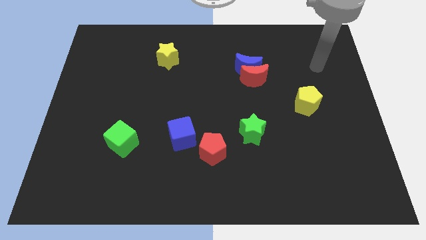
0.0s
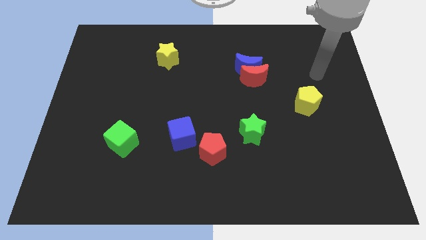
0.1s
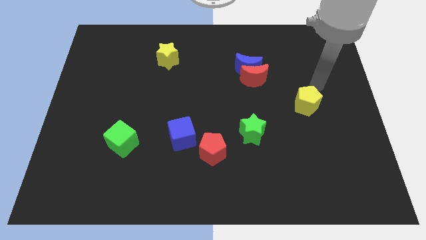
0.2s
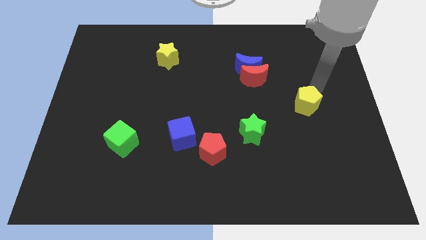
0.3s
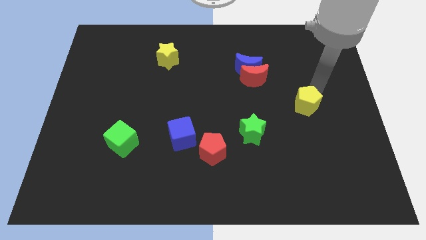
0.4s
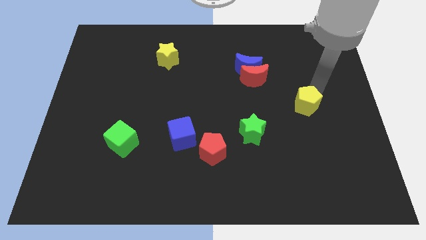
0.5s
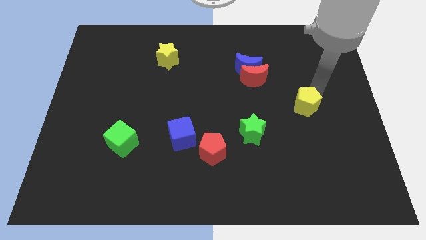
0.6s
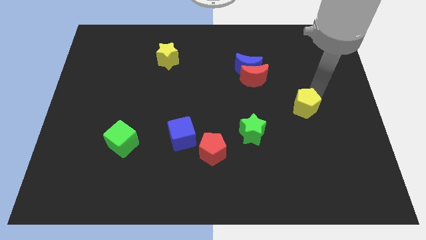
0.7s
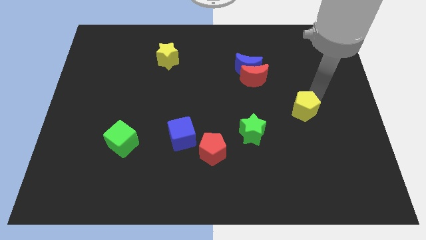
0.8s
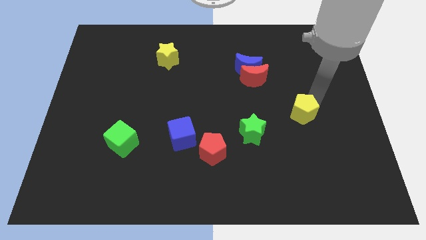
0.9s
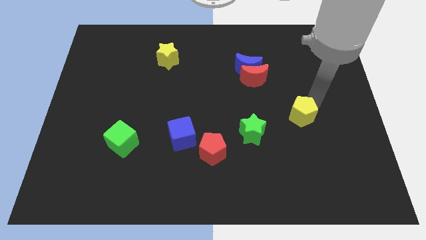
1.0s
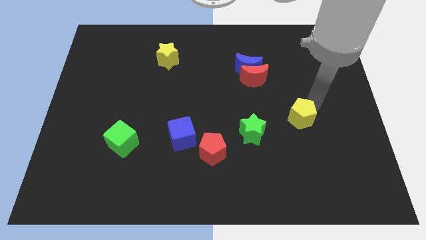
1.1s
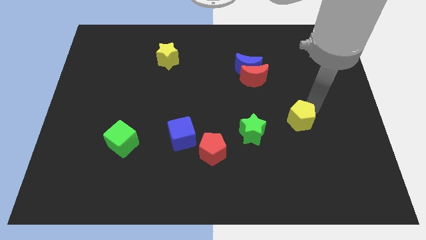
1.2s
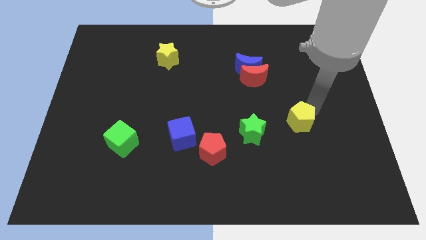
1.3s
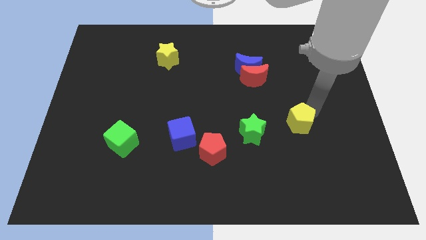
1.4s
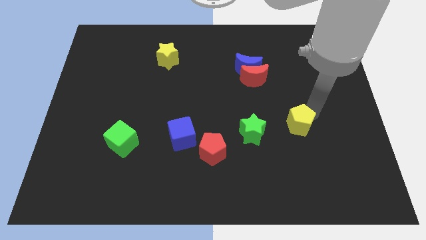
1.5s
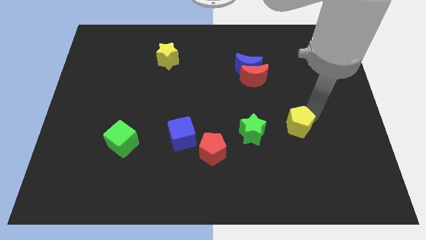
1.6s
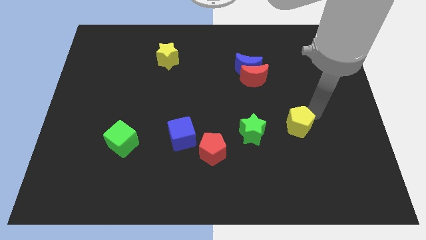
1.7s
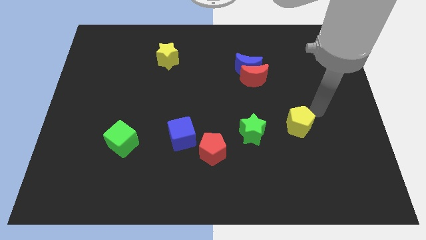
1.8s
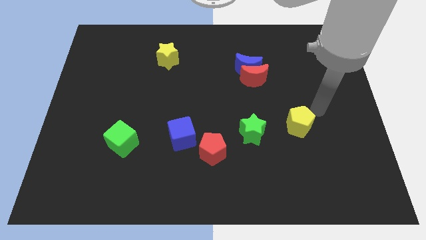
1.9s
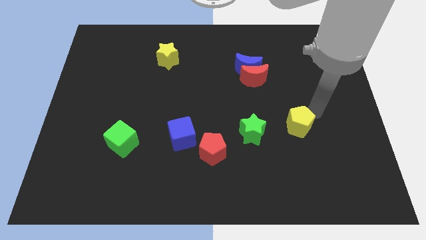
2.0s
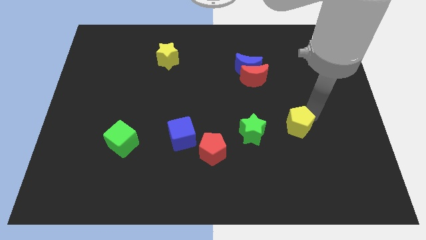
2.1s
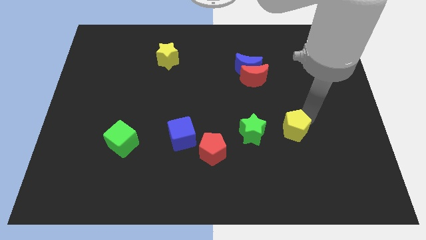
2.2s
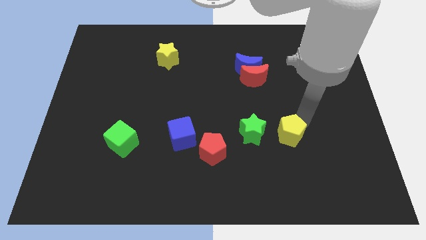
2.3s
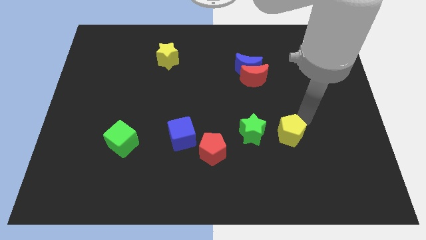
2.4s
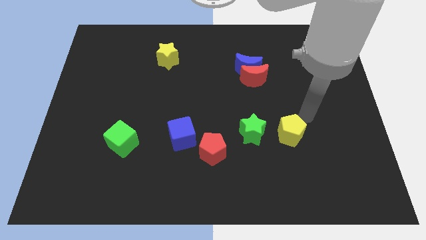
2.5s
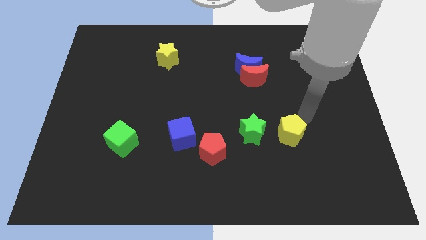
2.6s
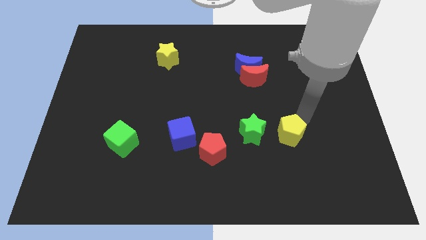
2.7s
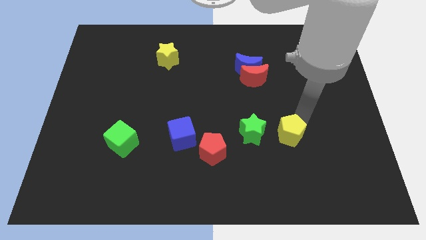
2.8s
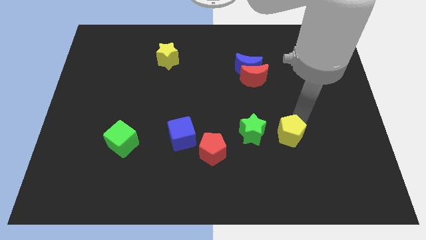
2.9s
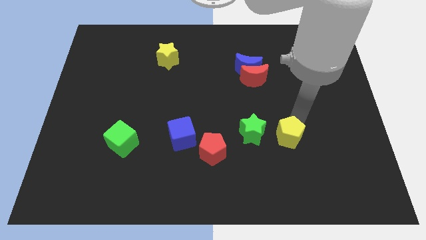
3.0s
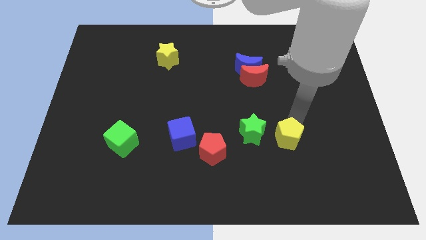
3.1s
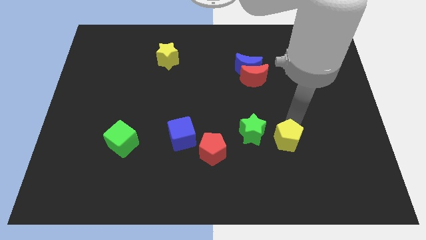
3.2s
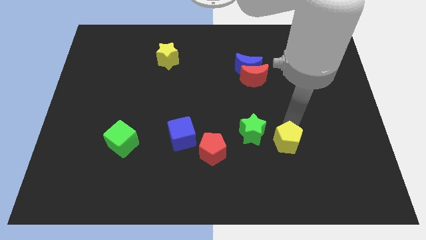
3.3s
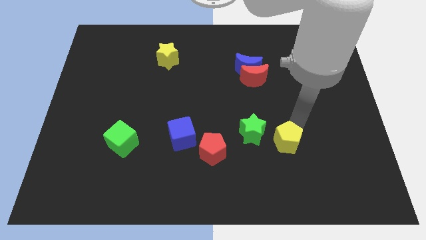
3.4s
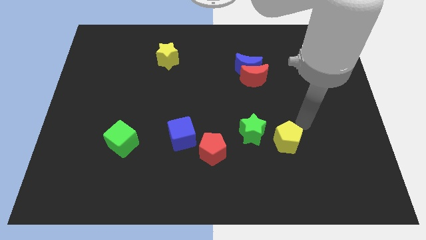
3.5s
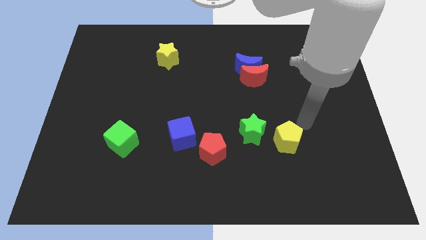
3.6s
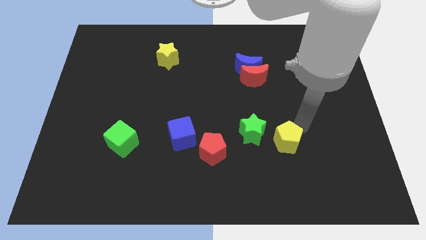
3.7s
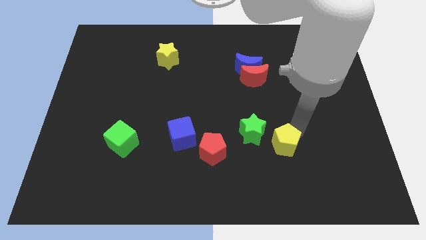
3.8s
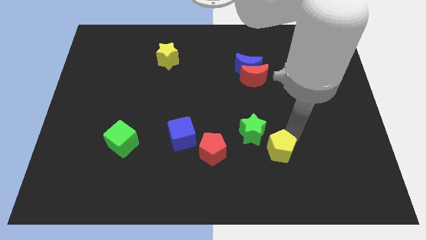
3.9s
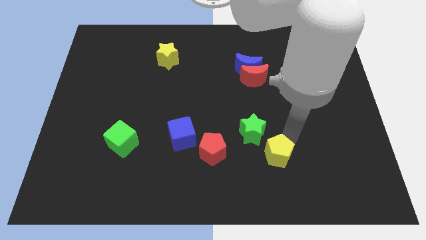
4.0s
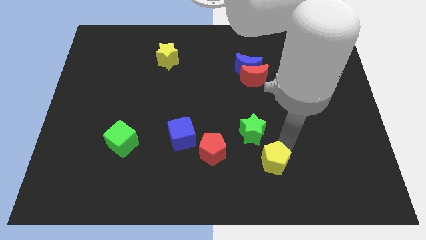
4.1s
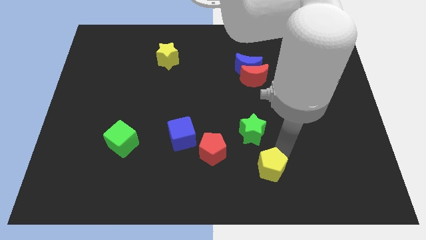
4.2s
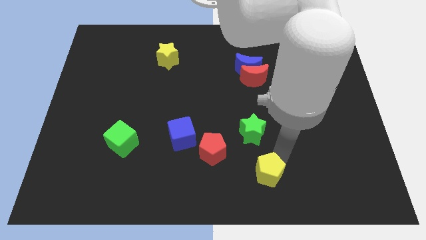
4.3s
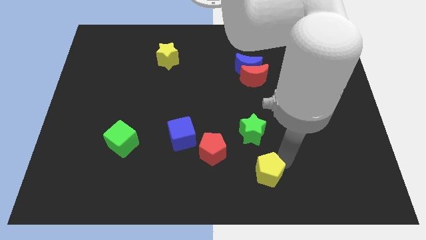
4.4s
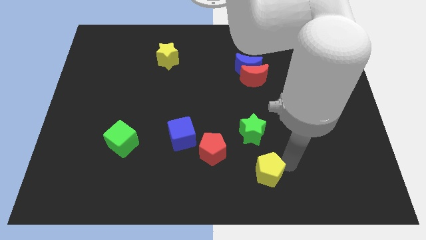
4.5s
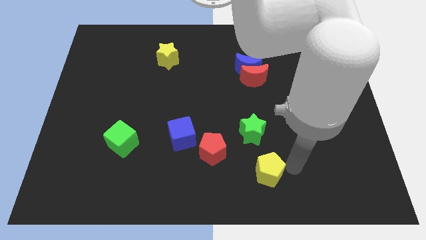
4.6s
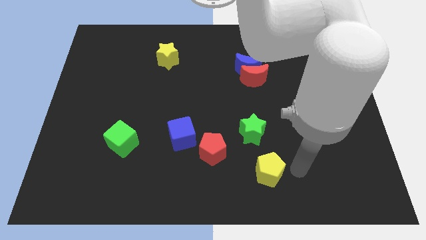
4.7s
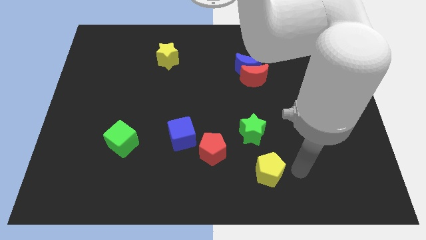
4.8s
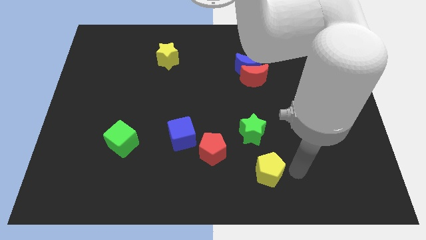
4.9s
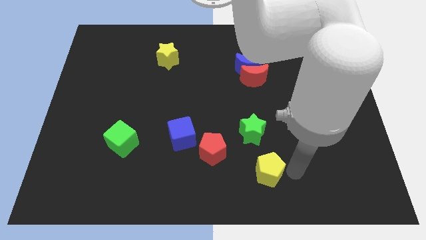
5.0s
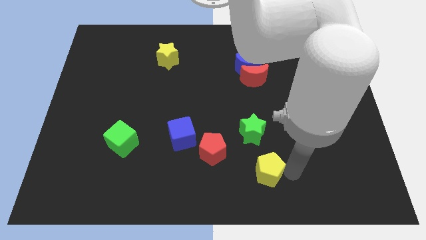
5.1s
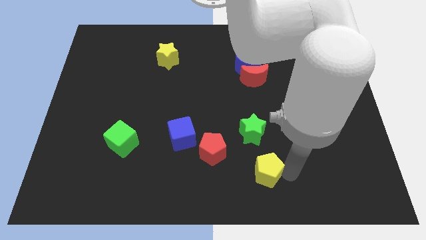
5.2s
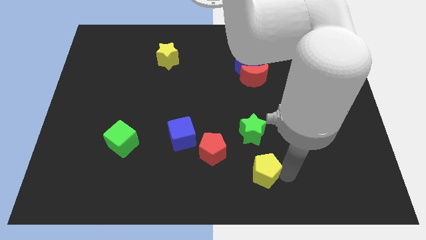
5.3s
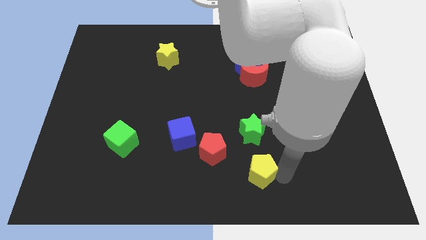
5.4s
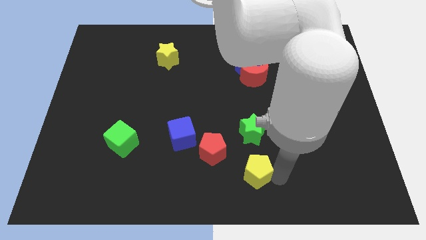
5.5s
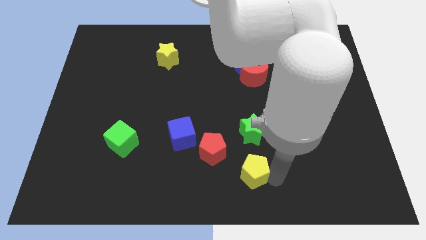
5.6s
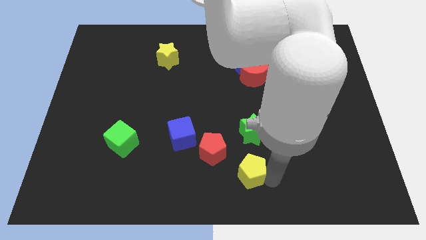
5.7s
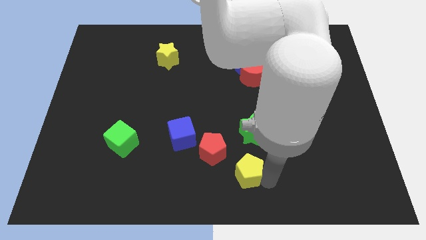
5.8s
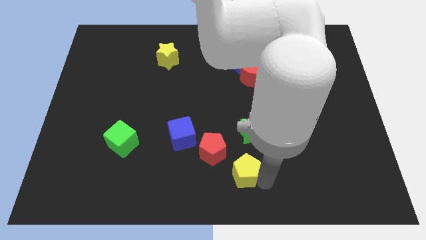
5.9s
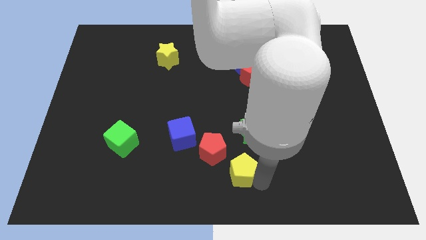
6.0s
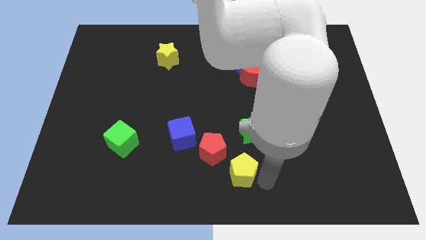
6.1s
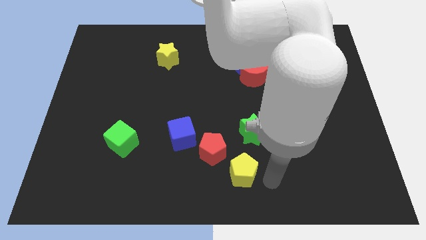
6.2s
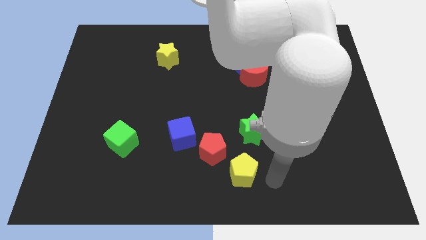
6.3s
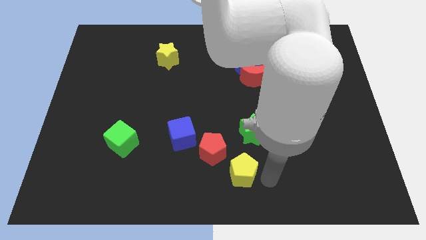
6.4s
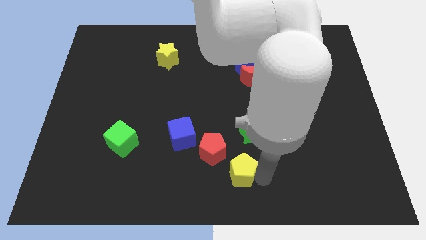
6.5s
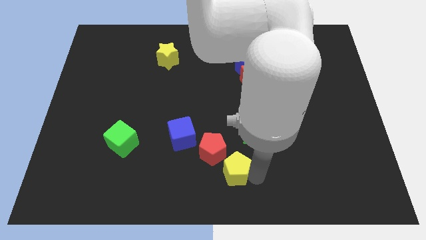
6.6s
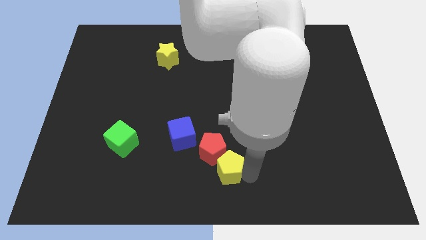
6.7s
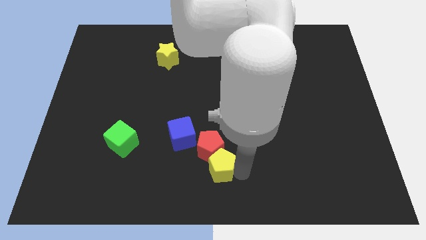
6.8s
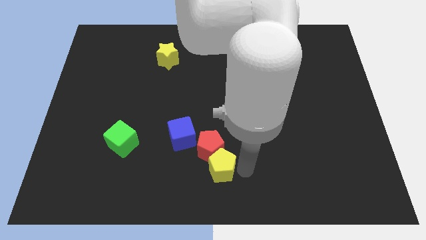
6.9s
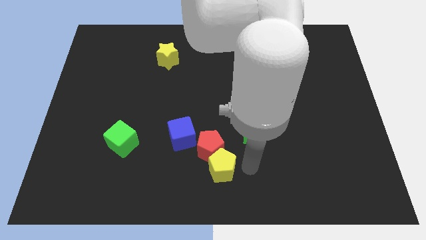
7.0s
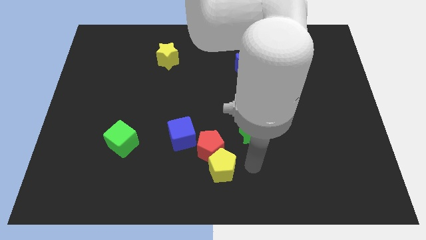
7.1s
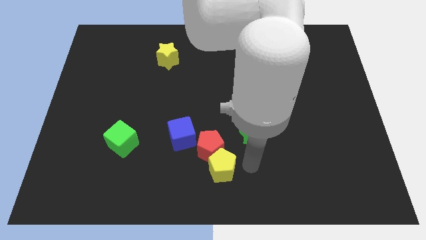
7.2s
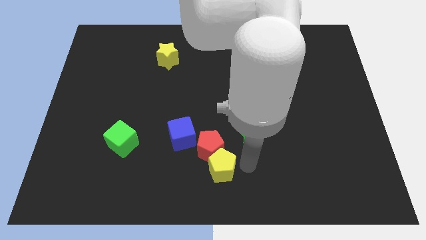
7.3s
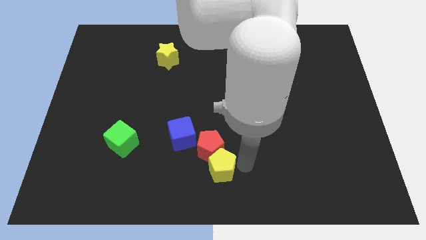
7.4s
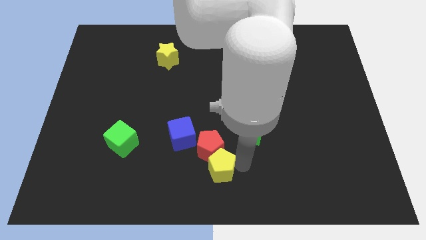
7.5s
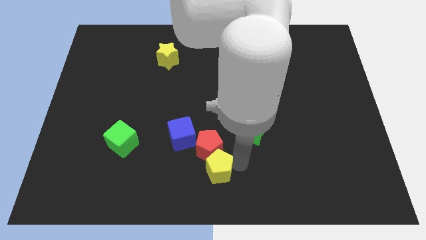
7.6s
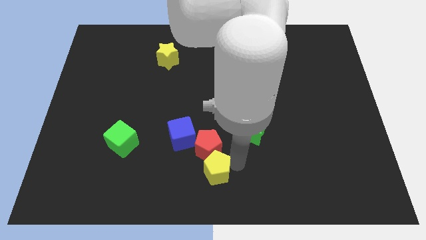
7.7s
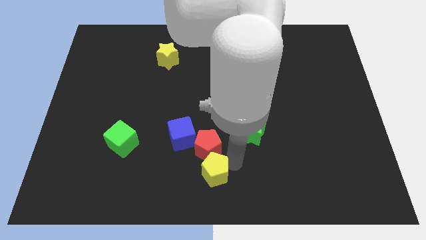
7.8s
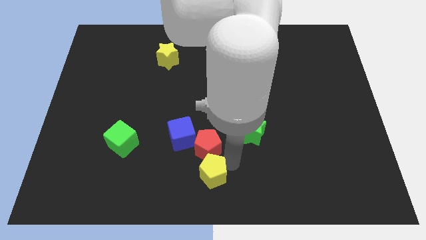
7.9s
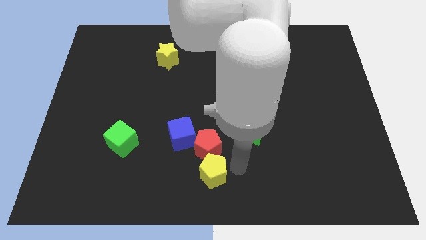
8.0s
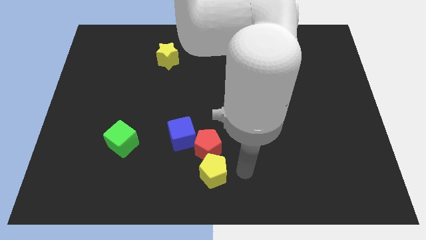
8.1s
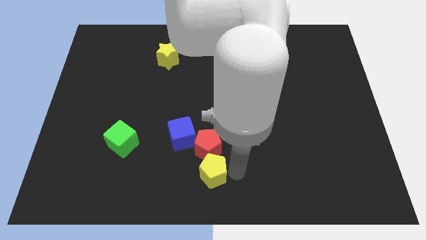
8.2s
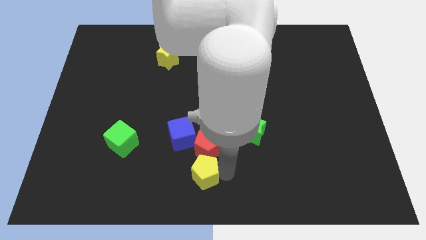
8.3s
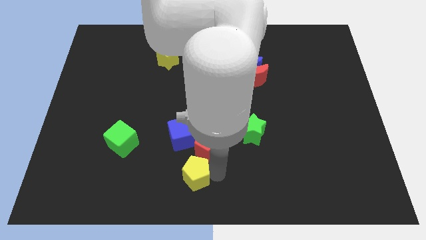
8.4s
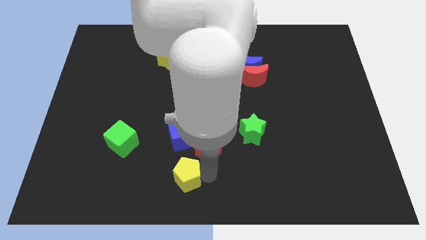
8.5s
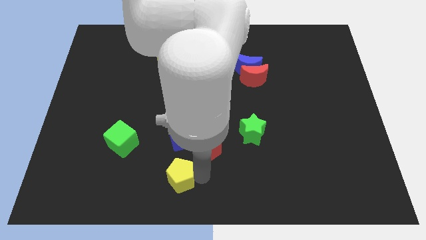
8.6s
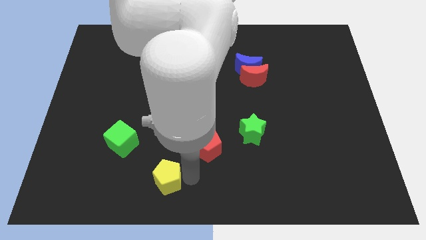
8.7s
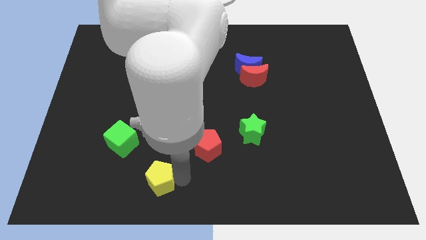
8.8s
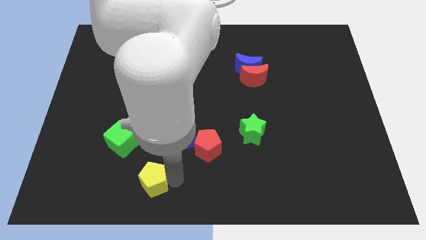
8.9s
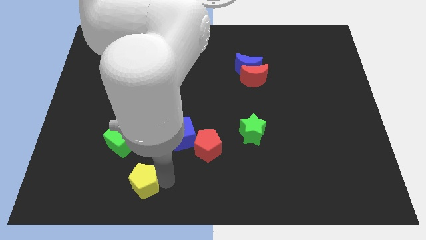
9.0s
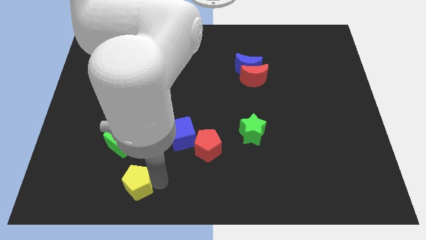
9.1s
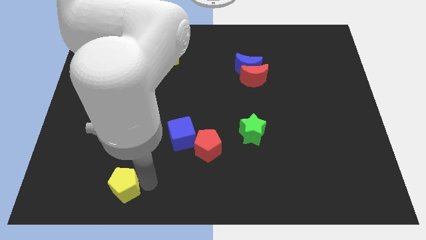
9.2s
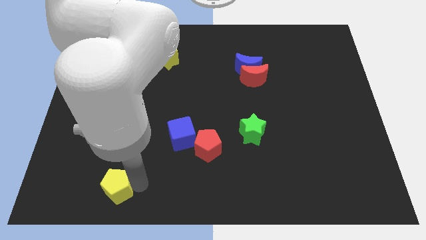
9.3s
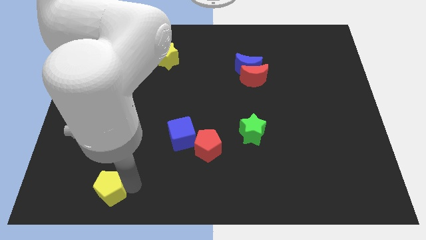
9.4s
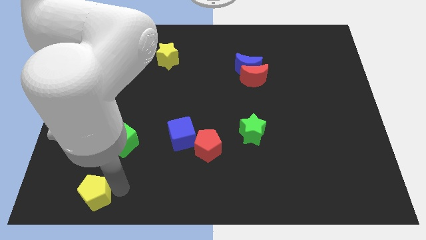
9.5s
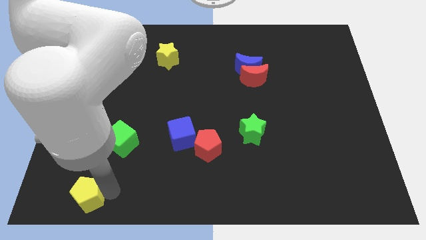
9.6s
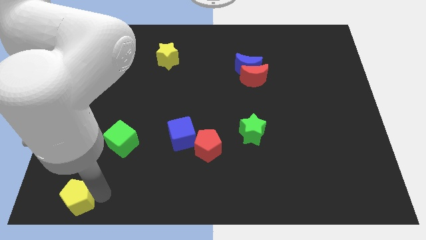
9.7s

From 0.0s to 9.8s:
slide the yellow pentagon to the lower left corner
